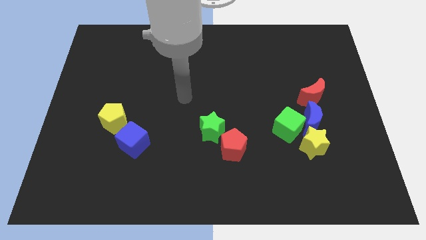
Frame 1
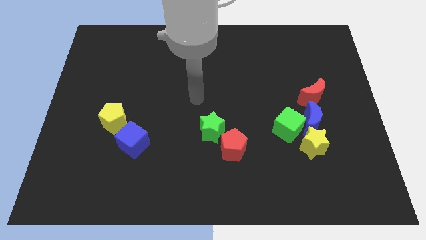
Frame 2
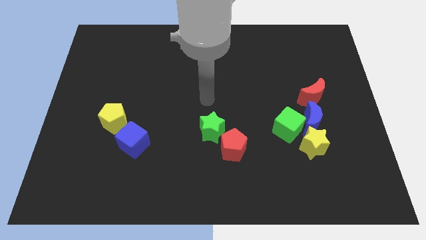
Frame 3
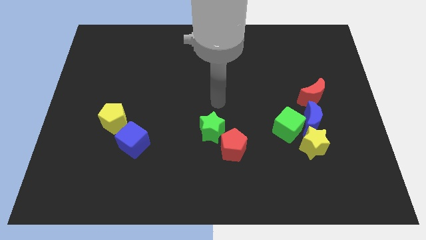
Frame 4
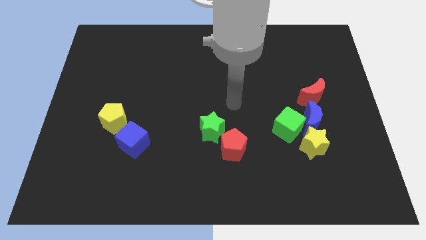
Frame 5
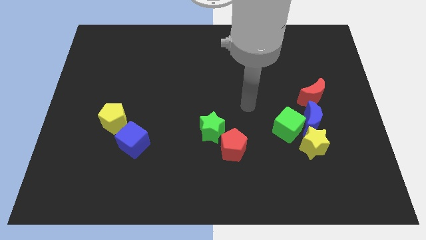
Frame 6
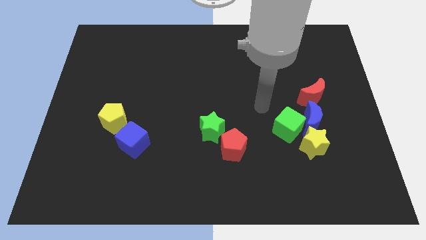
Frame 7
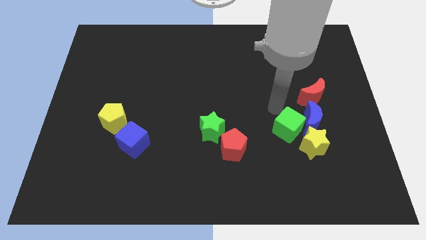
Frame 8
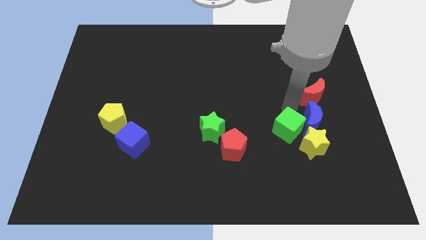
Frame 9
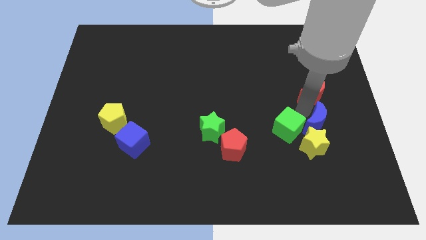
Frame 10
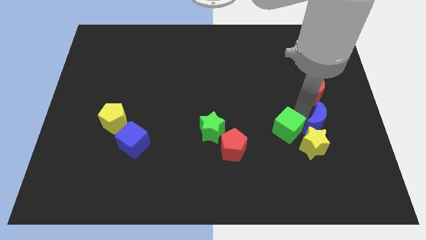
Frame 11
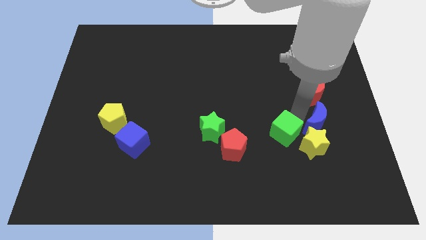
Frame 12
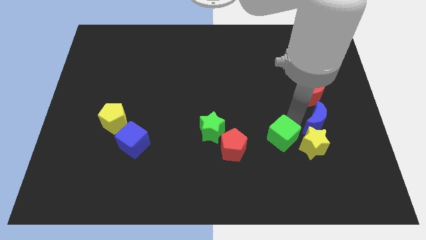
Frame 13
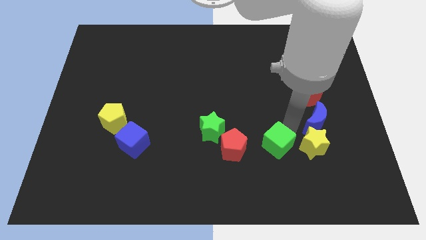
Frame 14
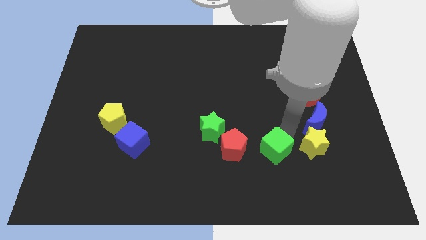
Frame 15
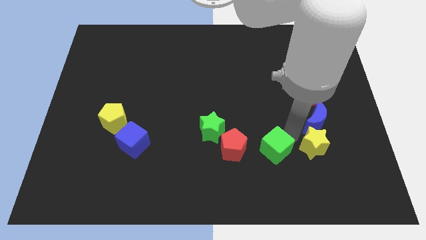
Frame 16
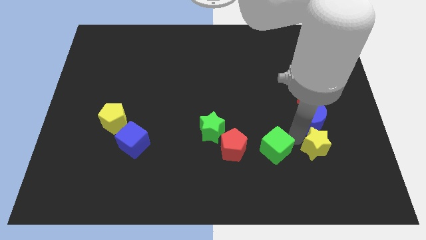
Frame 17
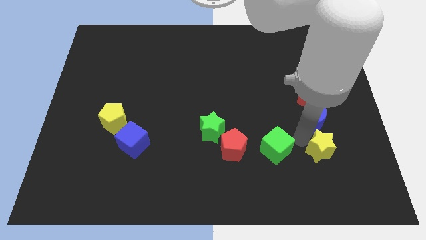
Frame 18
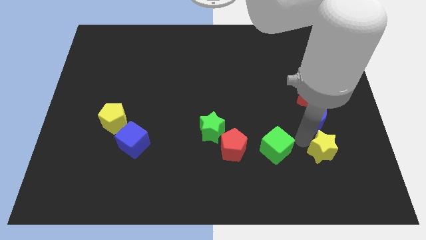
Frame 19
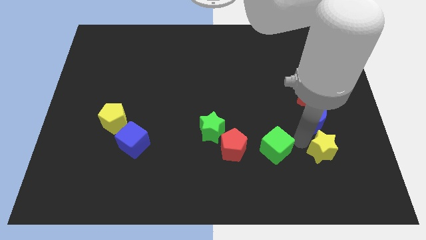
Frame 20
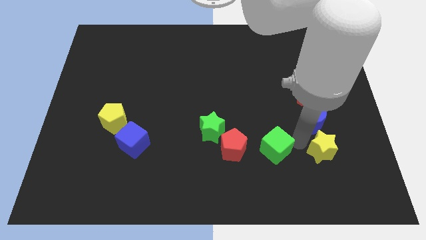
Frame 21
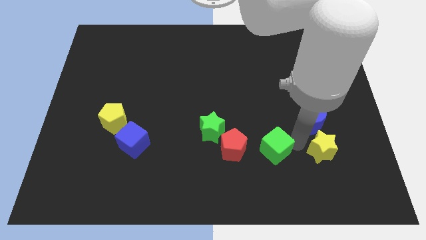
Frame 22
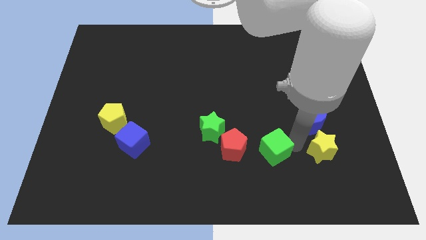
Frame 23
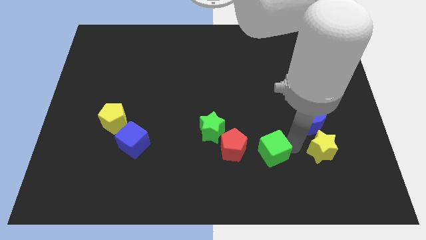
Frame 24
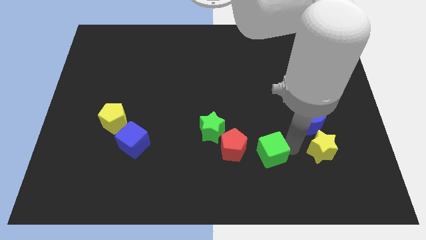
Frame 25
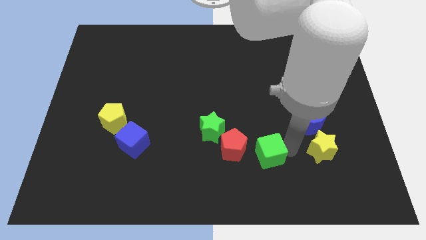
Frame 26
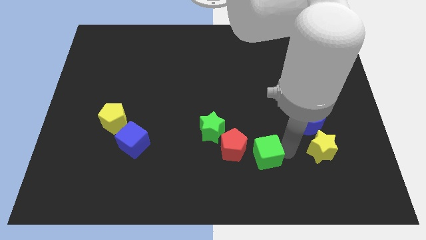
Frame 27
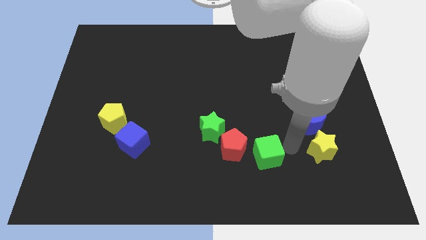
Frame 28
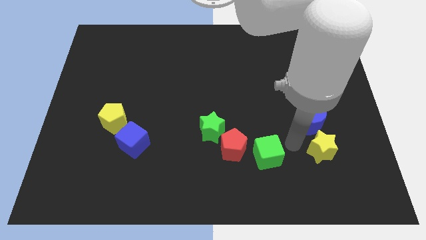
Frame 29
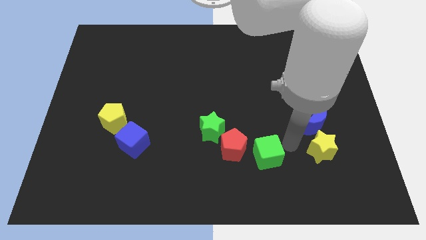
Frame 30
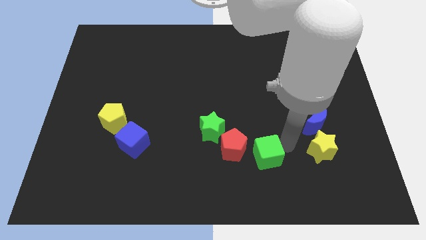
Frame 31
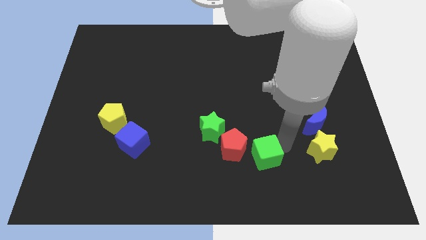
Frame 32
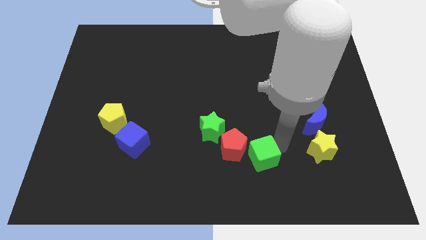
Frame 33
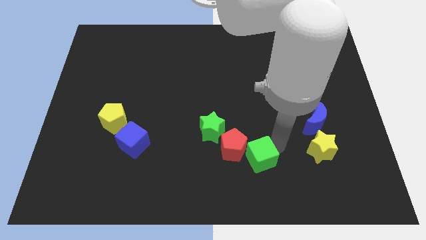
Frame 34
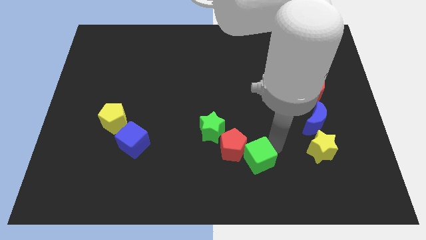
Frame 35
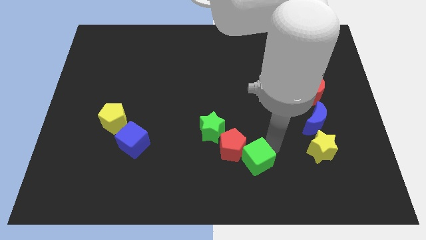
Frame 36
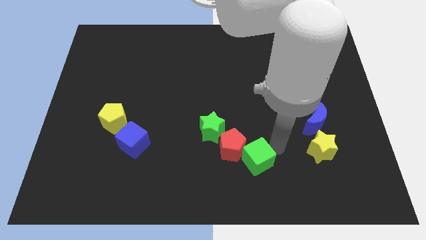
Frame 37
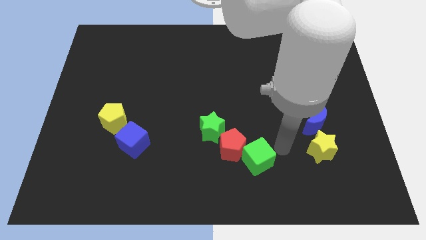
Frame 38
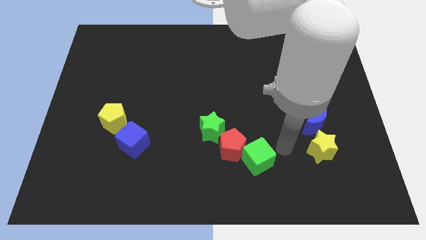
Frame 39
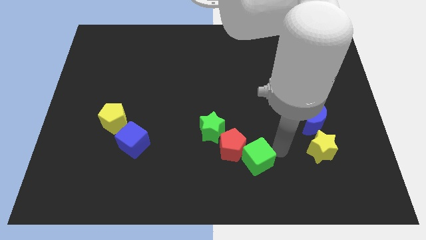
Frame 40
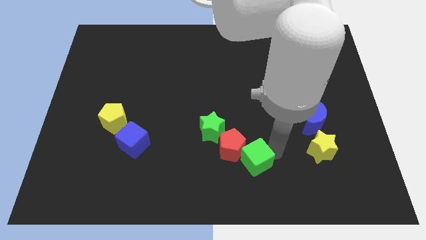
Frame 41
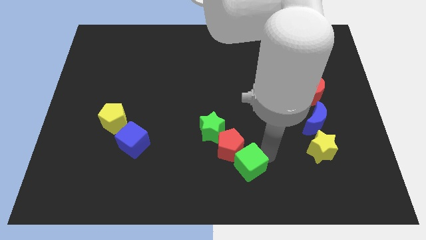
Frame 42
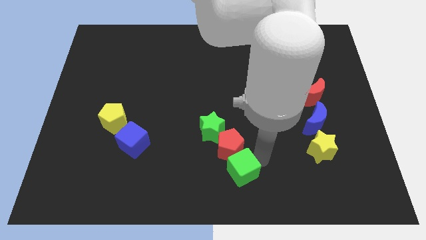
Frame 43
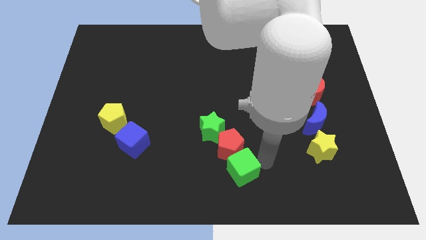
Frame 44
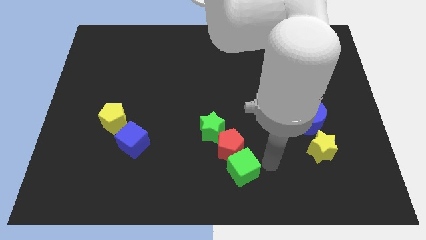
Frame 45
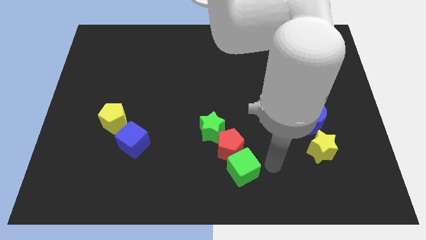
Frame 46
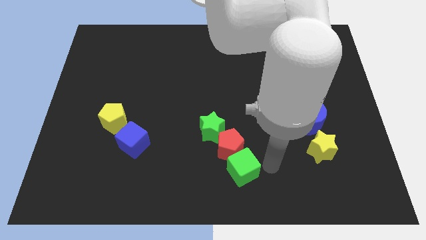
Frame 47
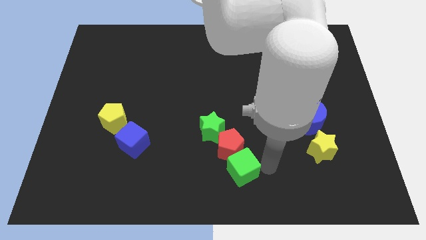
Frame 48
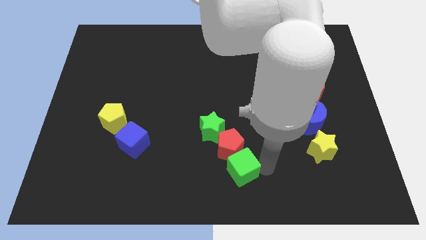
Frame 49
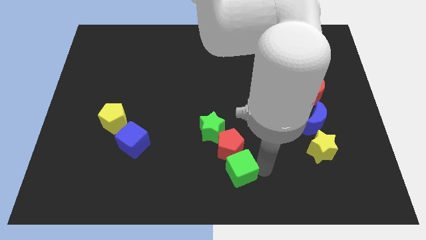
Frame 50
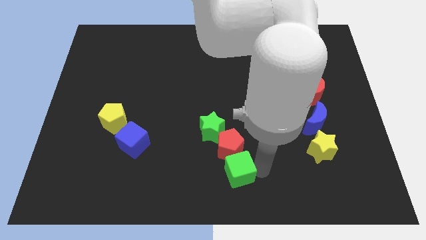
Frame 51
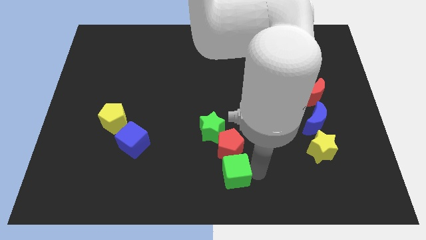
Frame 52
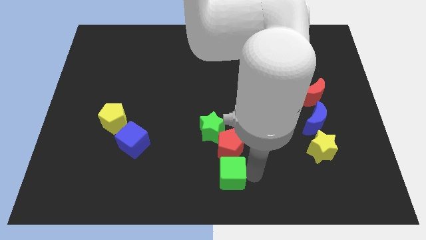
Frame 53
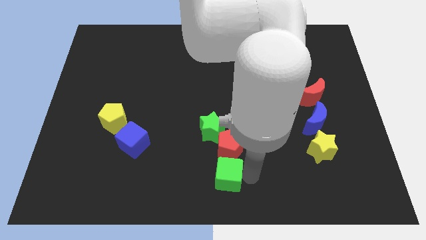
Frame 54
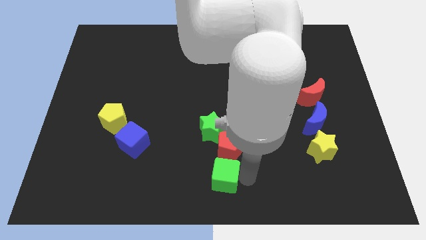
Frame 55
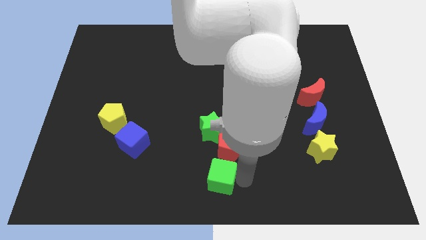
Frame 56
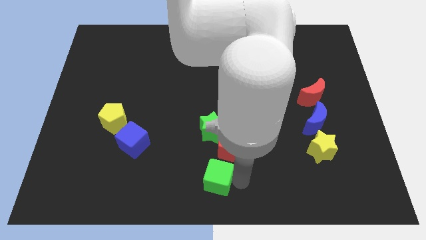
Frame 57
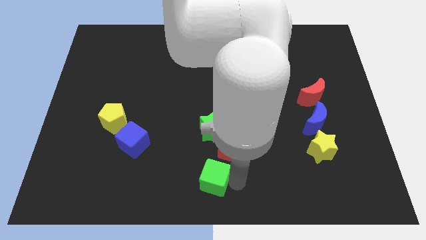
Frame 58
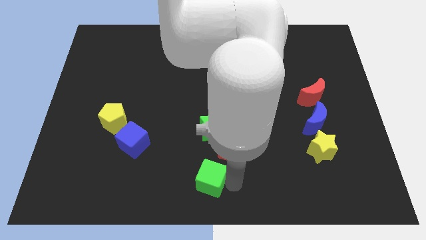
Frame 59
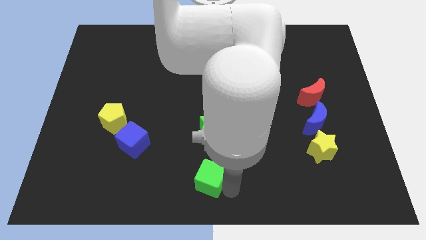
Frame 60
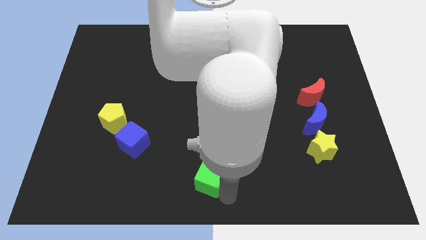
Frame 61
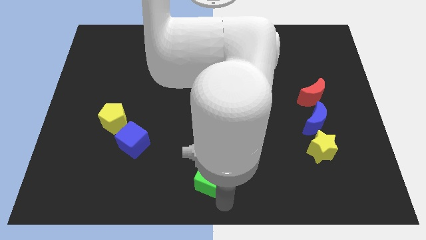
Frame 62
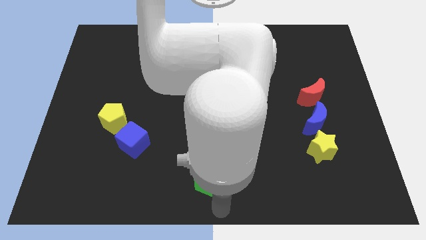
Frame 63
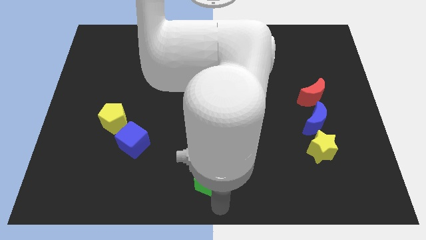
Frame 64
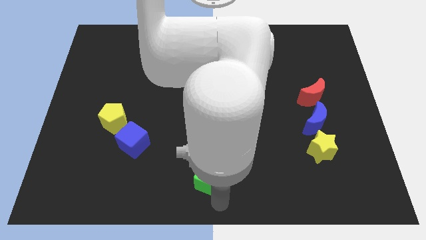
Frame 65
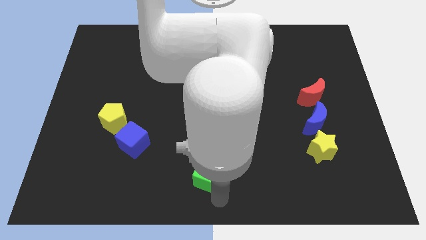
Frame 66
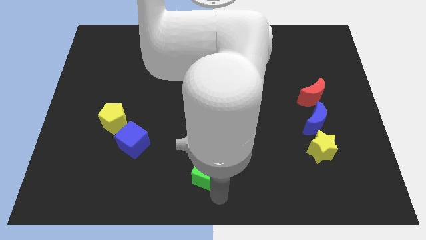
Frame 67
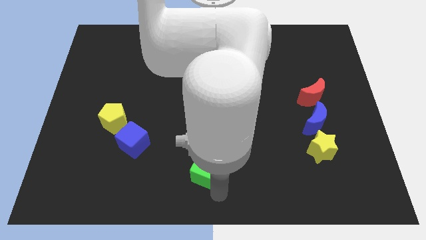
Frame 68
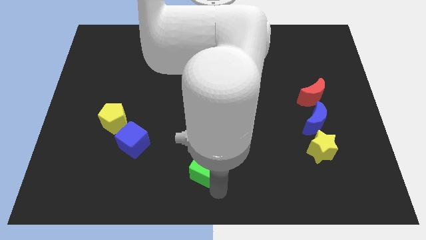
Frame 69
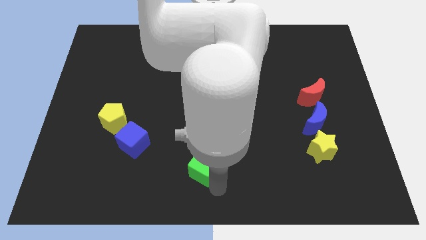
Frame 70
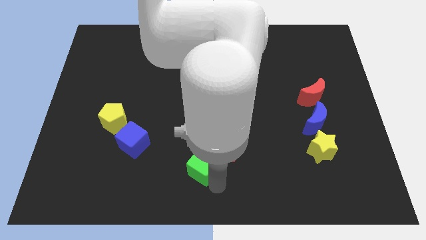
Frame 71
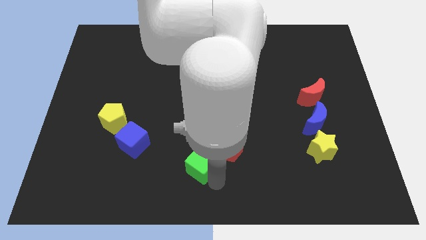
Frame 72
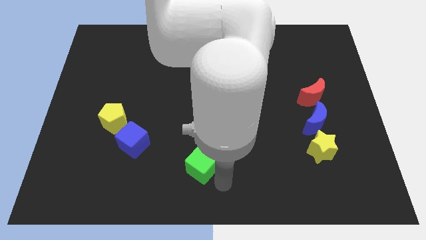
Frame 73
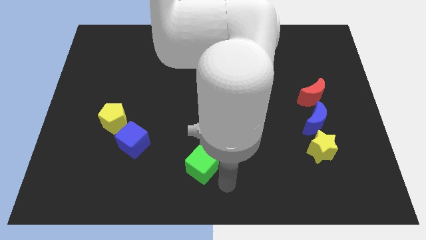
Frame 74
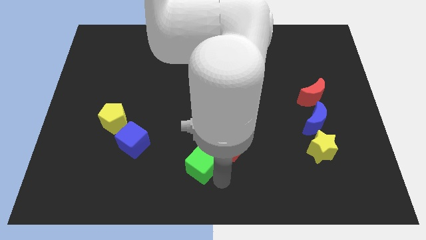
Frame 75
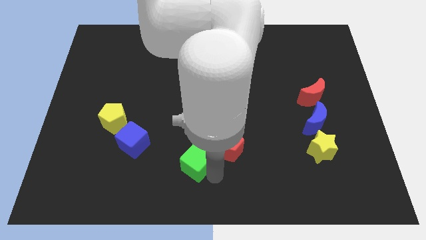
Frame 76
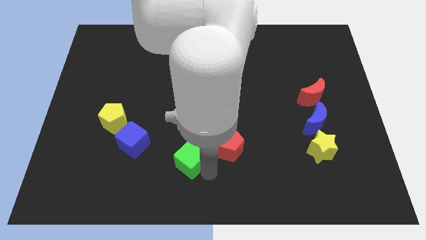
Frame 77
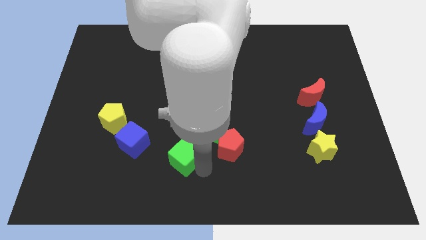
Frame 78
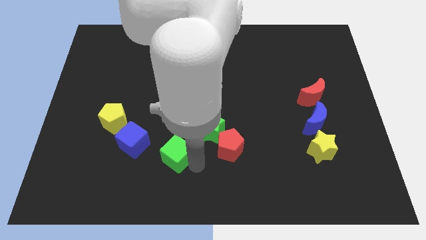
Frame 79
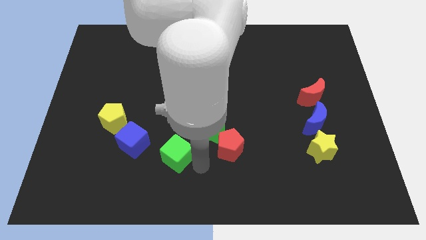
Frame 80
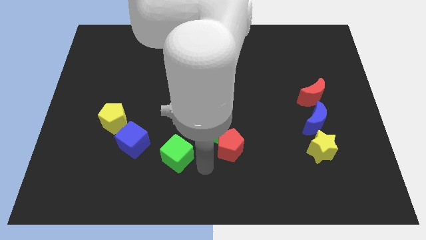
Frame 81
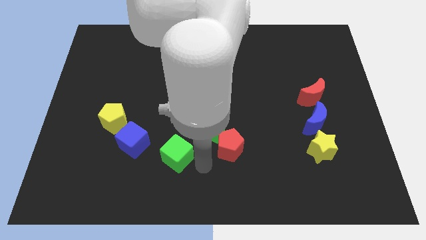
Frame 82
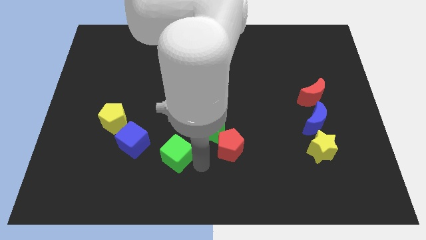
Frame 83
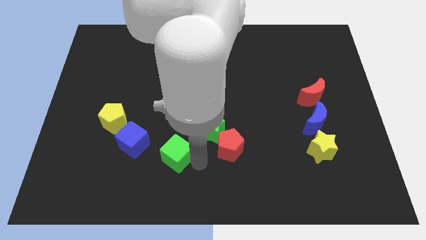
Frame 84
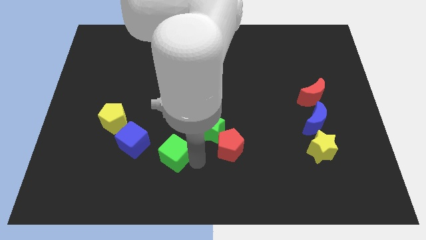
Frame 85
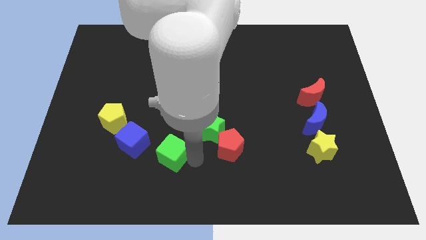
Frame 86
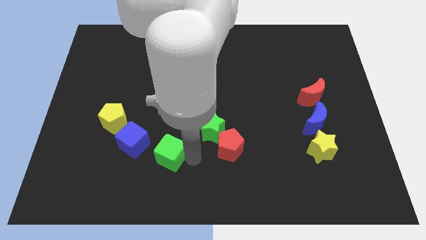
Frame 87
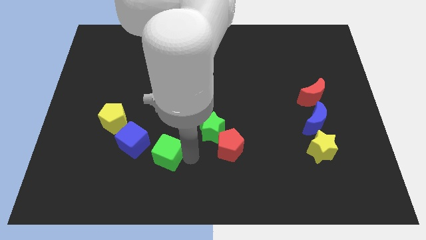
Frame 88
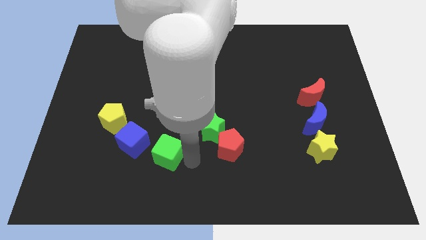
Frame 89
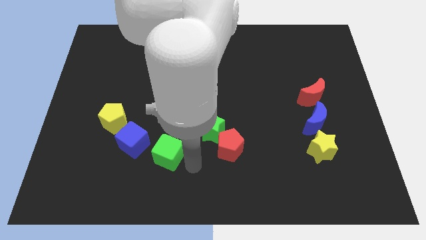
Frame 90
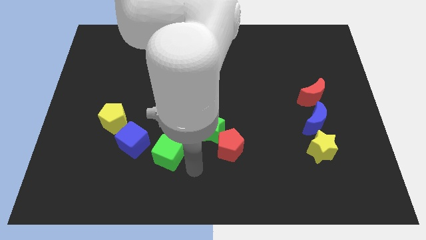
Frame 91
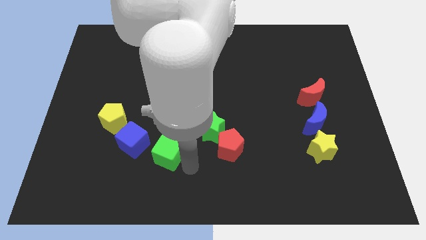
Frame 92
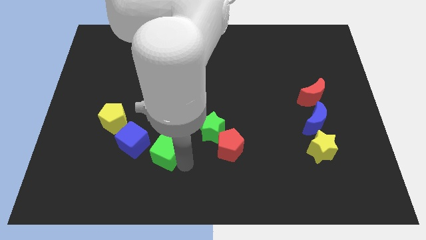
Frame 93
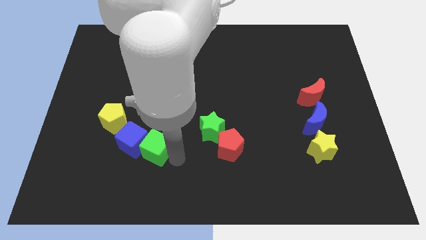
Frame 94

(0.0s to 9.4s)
push the green cube towards the blue cube
